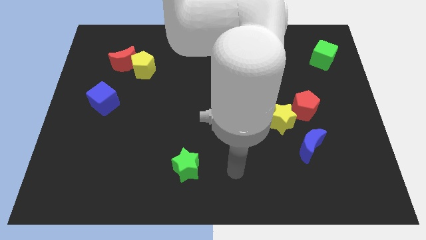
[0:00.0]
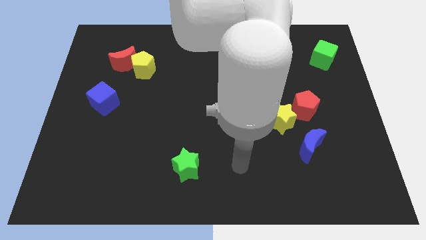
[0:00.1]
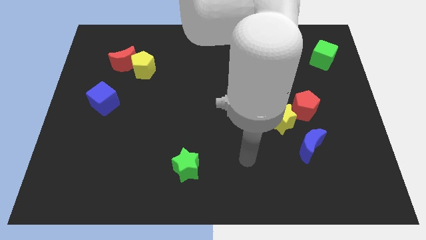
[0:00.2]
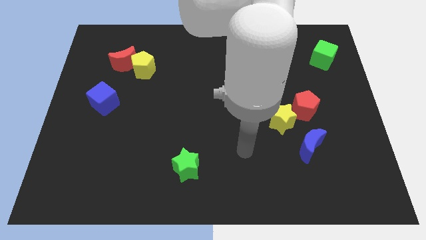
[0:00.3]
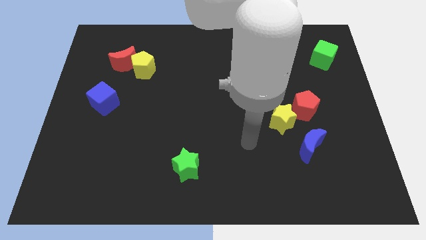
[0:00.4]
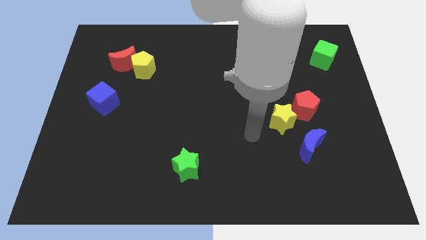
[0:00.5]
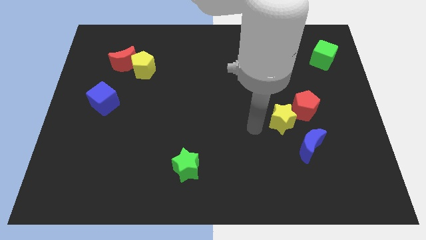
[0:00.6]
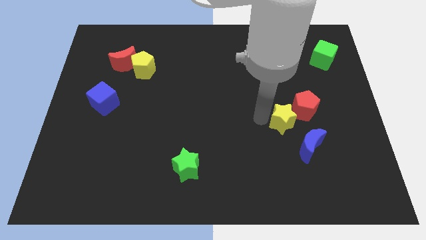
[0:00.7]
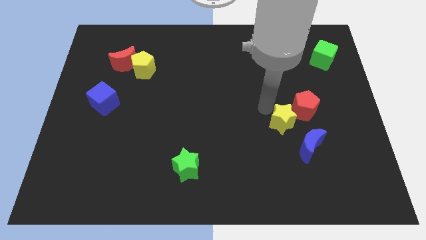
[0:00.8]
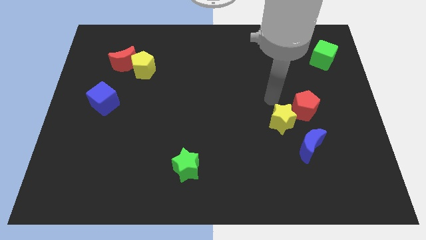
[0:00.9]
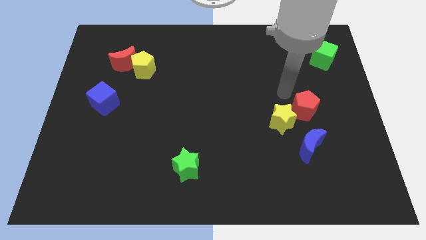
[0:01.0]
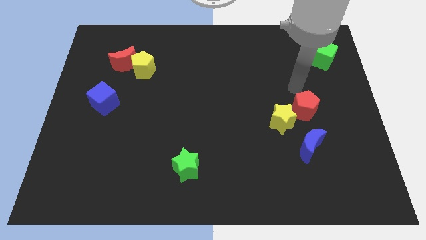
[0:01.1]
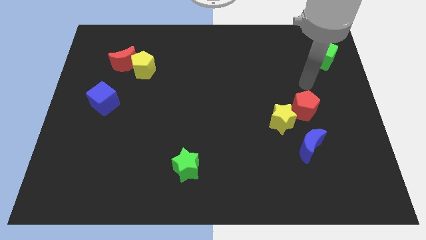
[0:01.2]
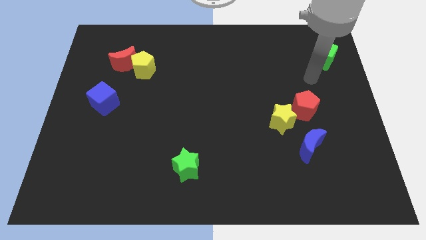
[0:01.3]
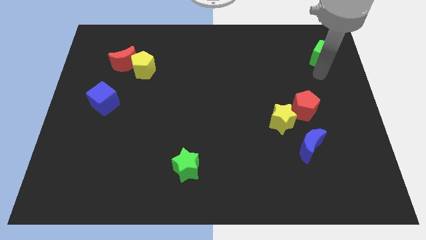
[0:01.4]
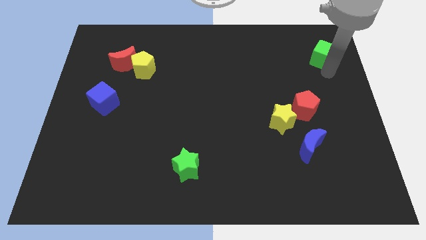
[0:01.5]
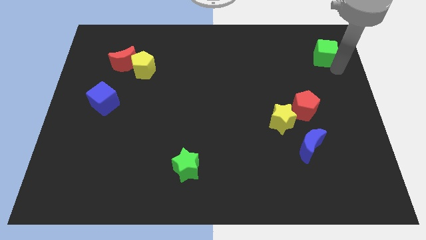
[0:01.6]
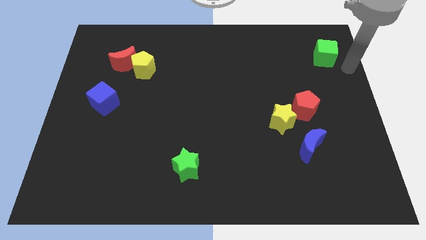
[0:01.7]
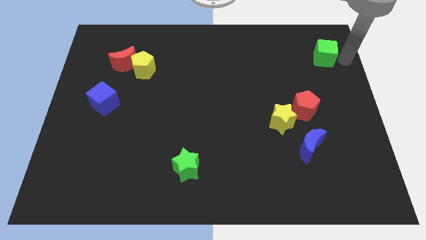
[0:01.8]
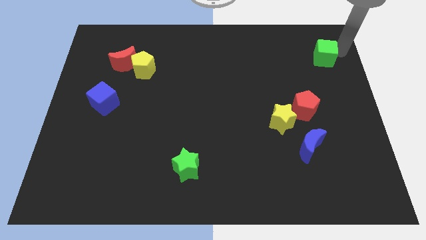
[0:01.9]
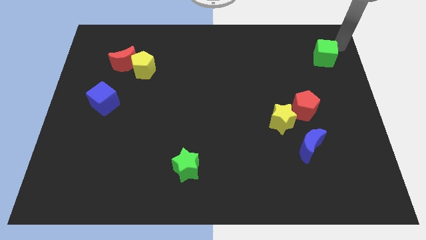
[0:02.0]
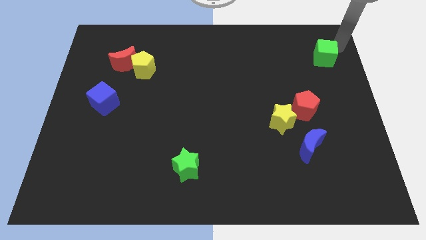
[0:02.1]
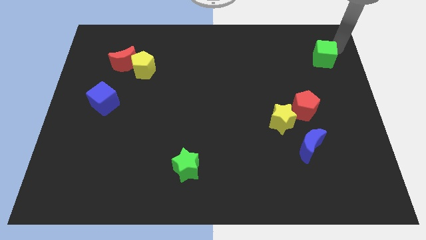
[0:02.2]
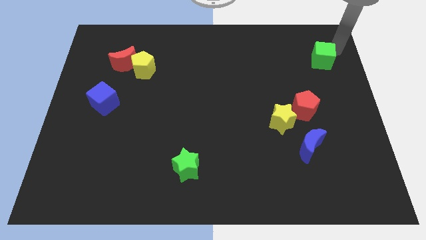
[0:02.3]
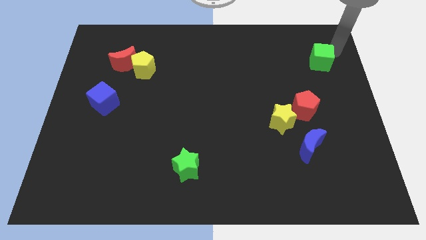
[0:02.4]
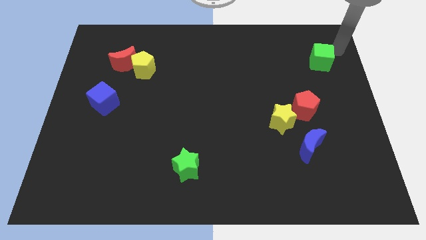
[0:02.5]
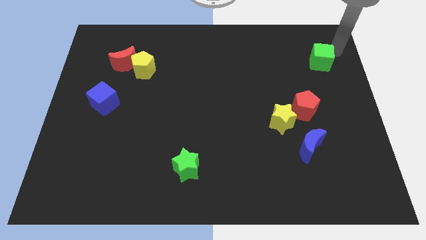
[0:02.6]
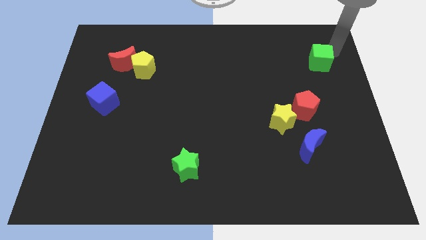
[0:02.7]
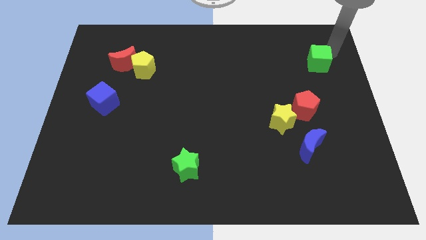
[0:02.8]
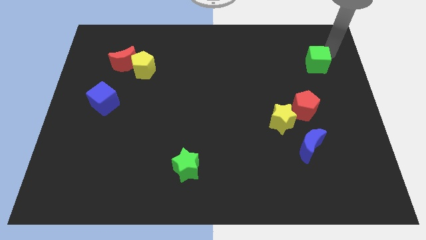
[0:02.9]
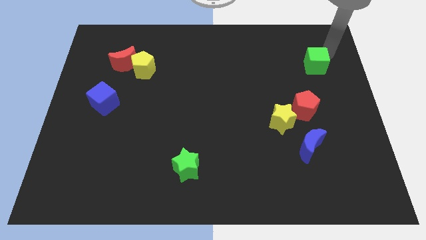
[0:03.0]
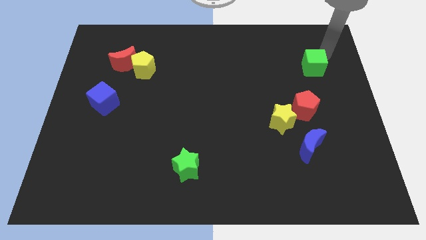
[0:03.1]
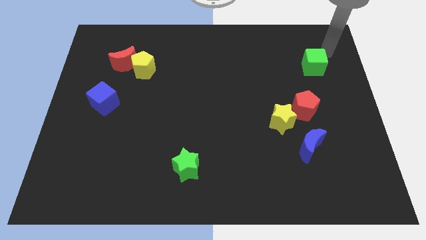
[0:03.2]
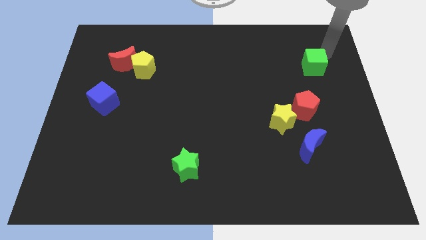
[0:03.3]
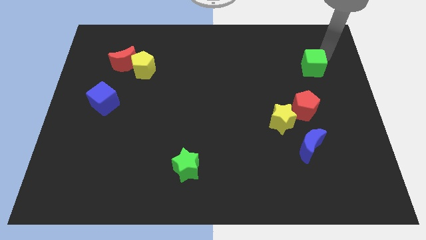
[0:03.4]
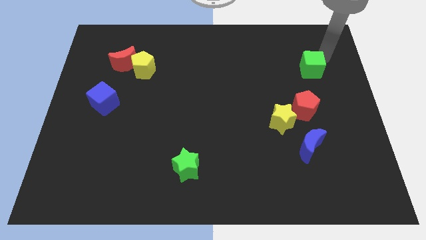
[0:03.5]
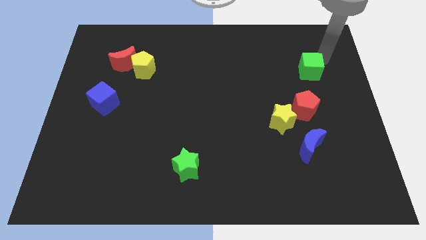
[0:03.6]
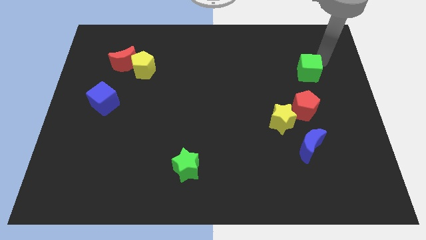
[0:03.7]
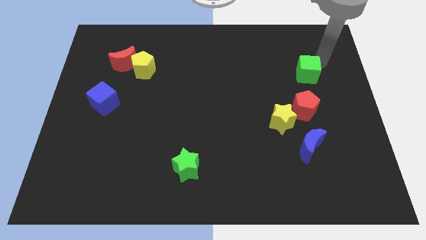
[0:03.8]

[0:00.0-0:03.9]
slightly move the green cube downwards and to the left

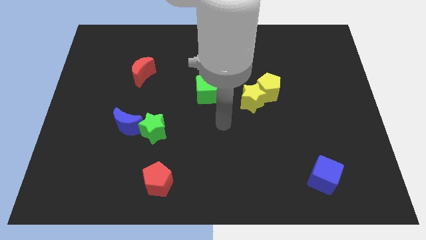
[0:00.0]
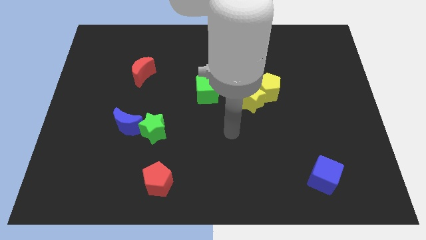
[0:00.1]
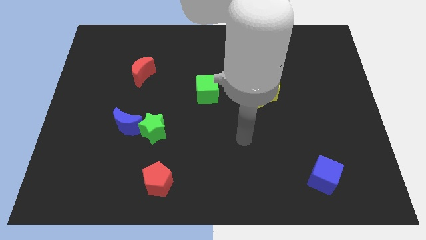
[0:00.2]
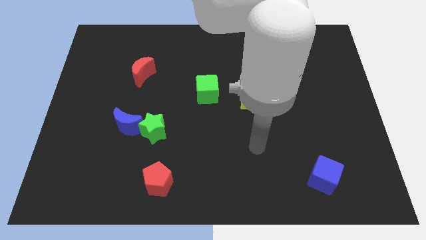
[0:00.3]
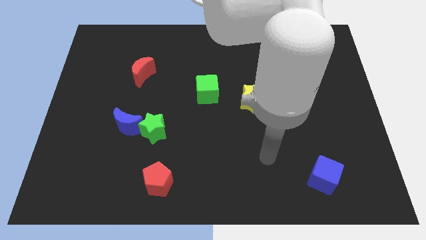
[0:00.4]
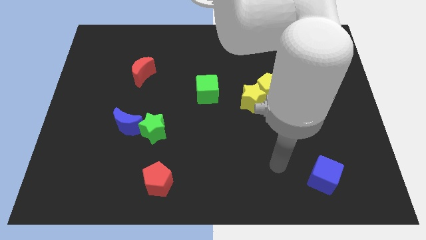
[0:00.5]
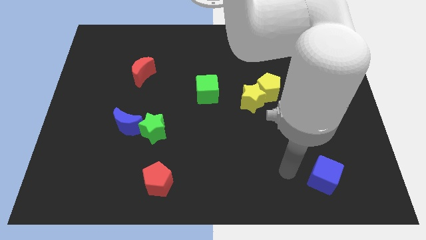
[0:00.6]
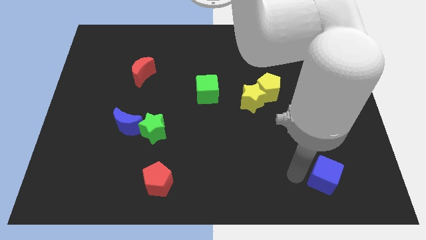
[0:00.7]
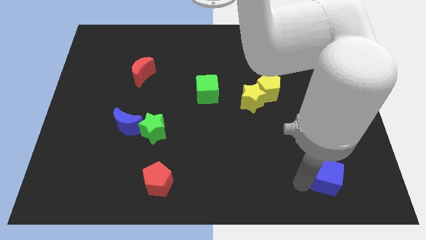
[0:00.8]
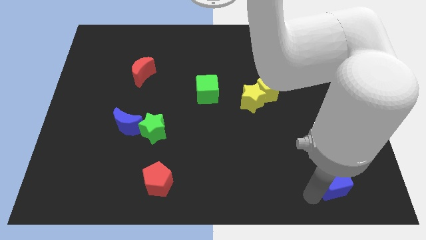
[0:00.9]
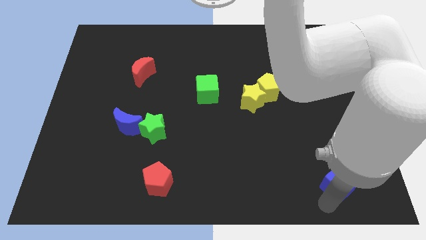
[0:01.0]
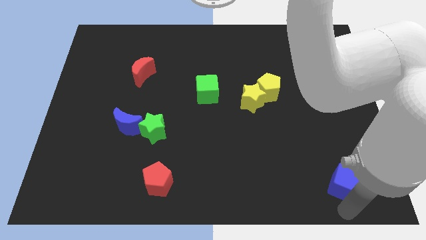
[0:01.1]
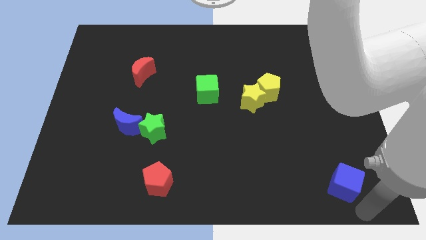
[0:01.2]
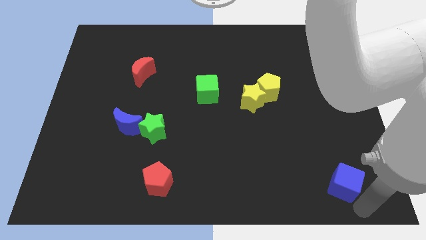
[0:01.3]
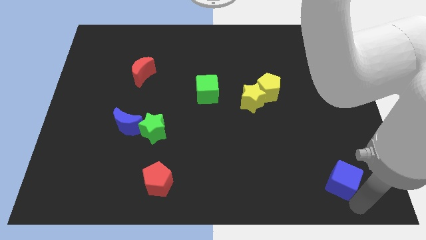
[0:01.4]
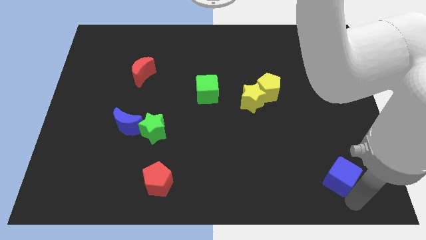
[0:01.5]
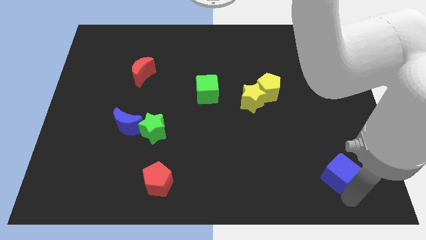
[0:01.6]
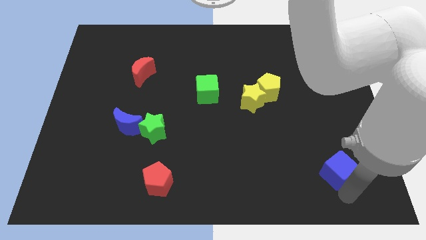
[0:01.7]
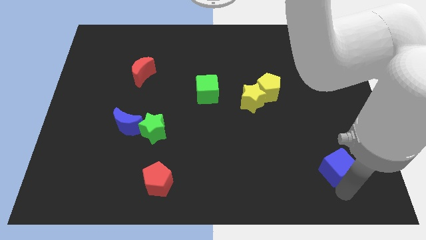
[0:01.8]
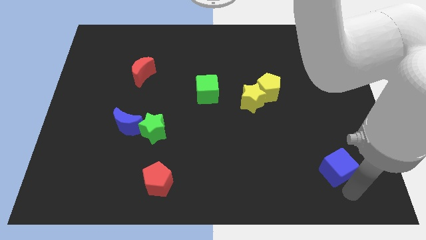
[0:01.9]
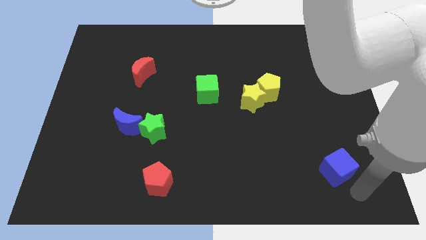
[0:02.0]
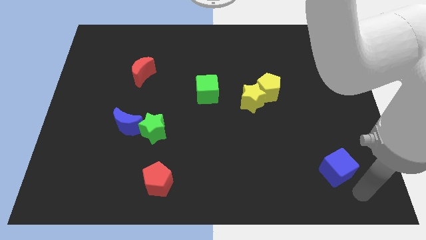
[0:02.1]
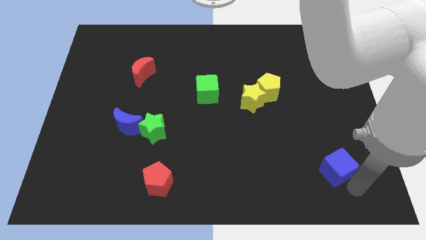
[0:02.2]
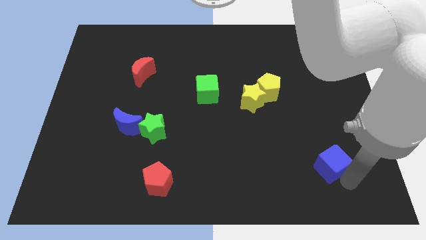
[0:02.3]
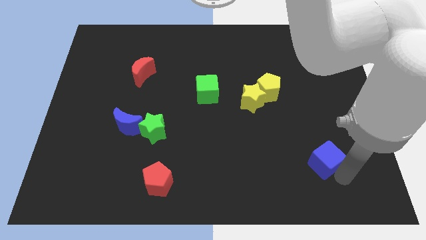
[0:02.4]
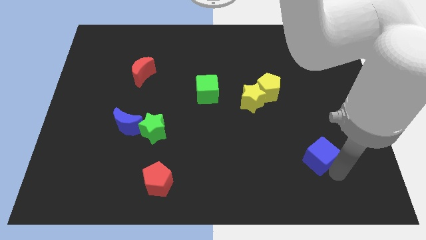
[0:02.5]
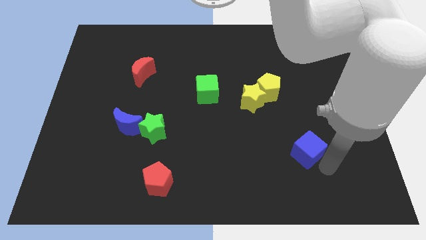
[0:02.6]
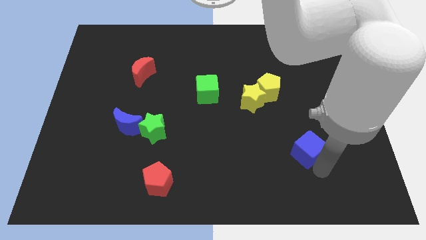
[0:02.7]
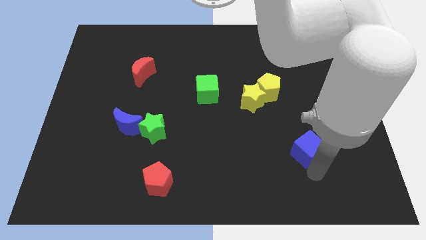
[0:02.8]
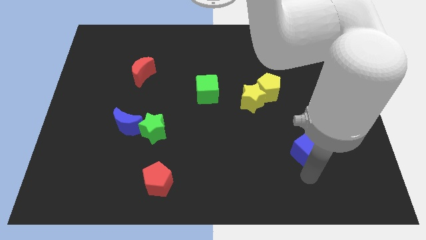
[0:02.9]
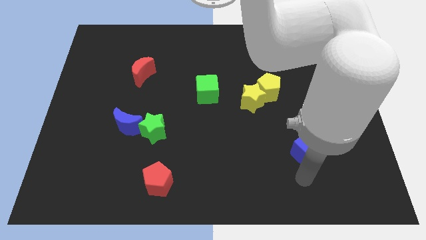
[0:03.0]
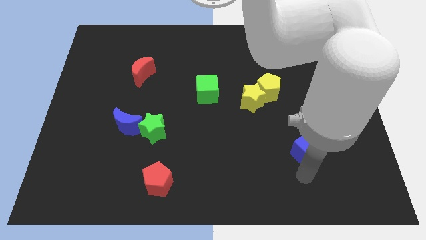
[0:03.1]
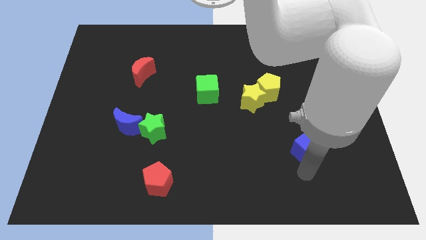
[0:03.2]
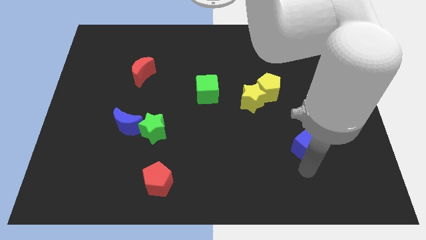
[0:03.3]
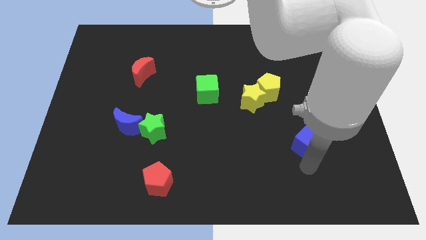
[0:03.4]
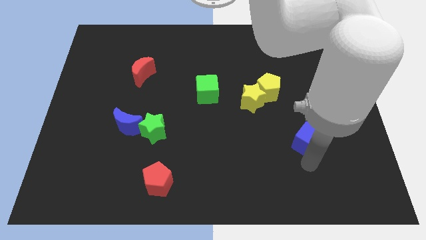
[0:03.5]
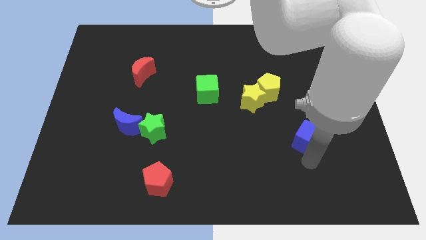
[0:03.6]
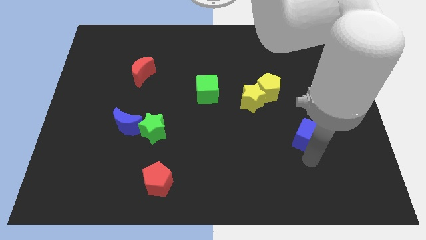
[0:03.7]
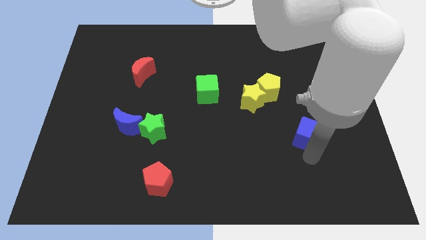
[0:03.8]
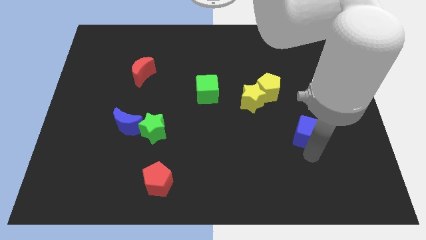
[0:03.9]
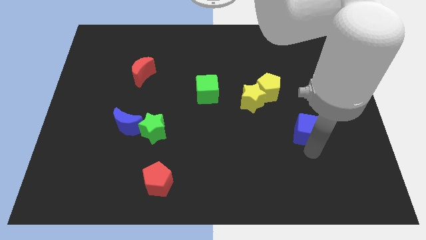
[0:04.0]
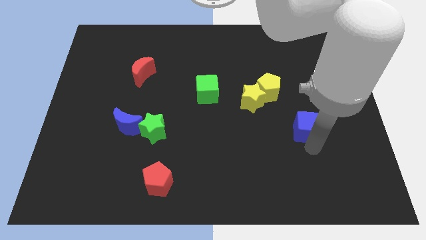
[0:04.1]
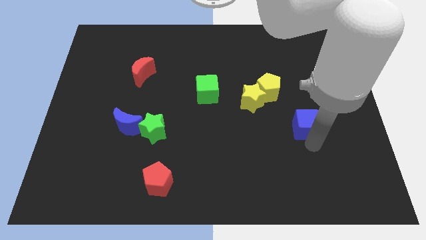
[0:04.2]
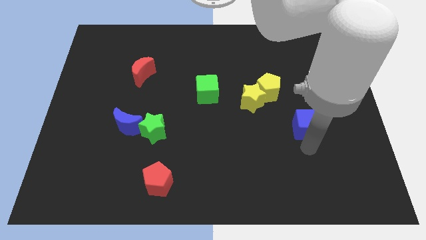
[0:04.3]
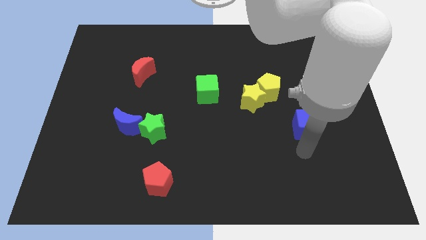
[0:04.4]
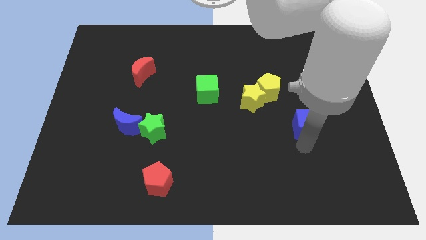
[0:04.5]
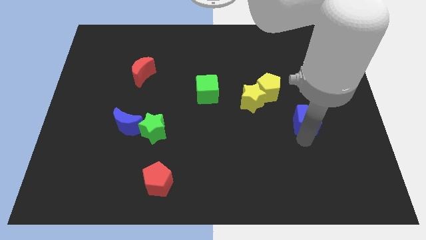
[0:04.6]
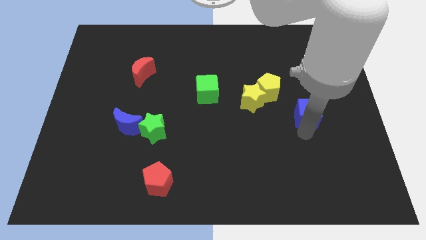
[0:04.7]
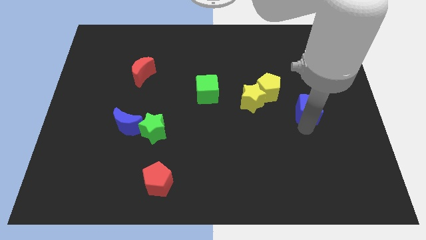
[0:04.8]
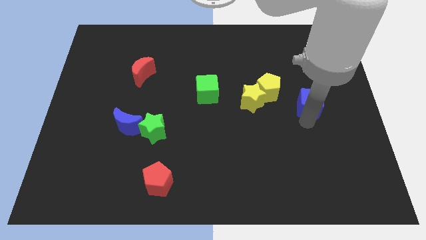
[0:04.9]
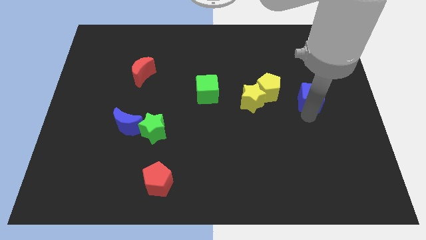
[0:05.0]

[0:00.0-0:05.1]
slide the blue cube upwards
